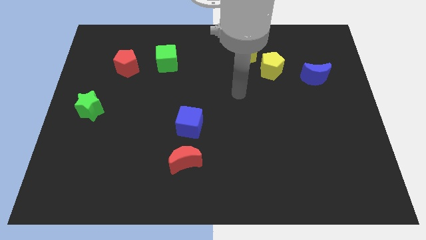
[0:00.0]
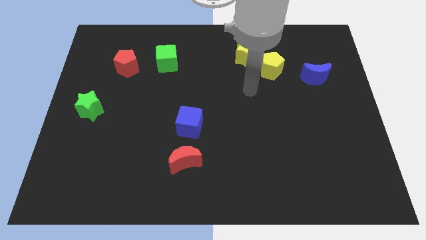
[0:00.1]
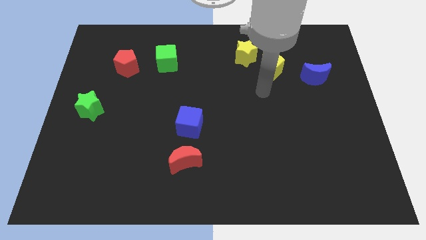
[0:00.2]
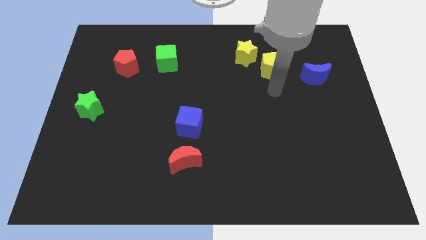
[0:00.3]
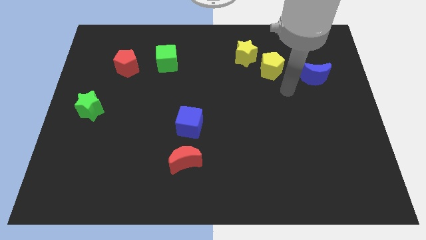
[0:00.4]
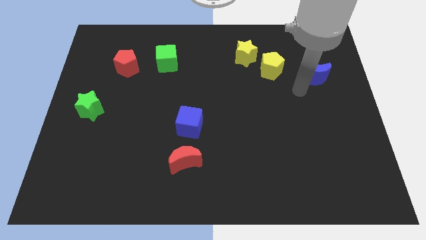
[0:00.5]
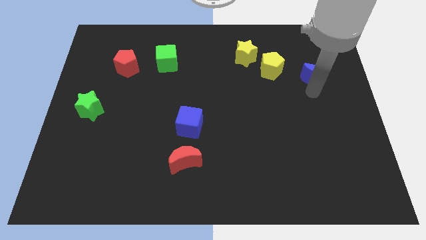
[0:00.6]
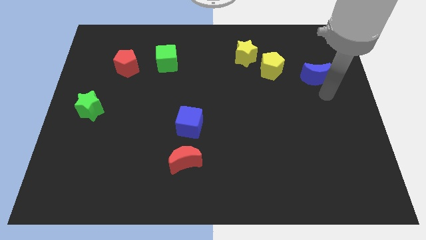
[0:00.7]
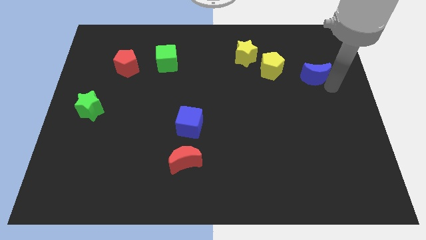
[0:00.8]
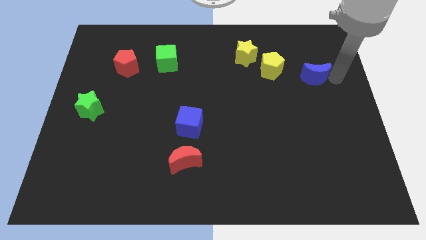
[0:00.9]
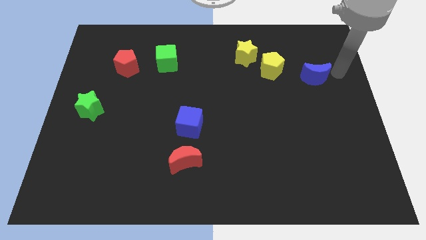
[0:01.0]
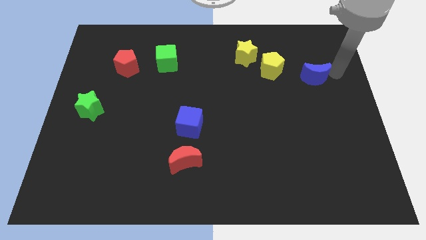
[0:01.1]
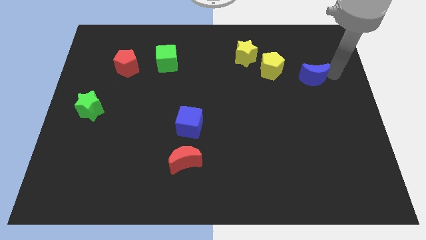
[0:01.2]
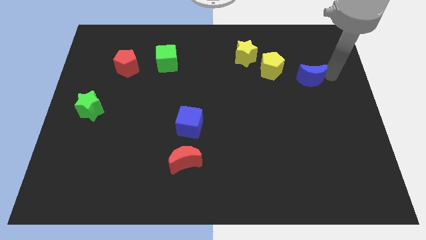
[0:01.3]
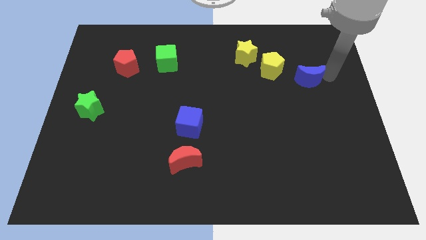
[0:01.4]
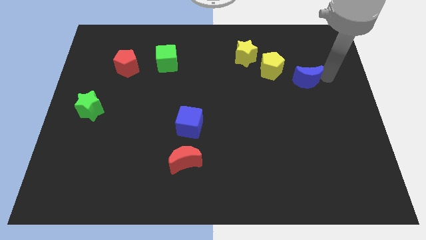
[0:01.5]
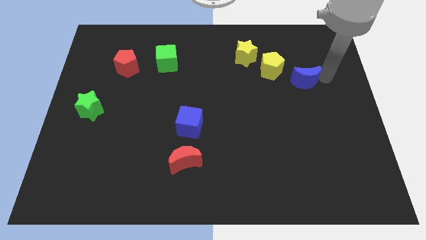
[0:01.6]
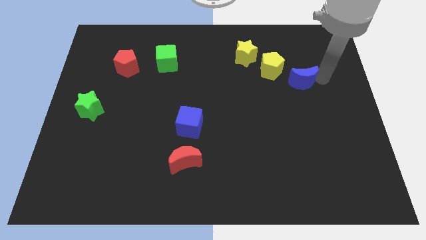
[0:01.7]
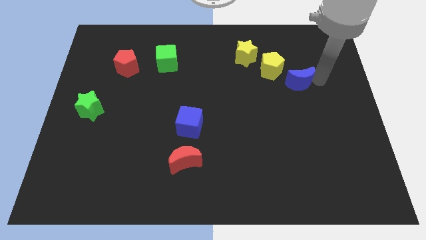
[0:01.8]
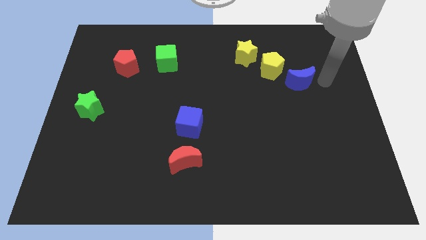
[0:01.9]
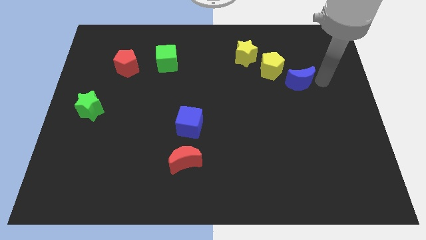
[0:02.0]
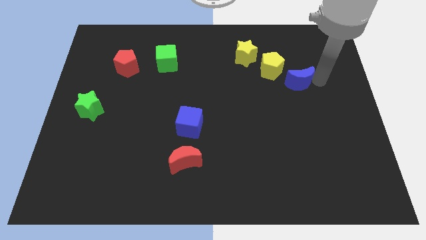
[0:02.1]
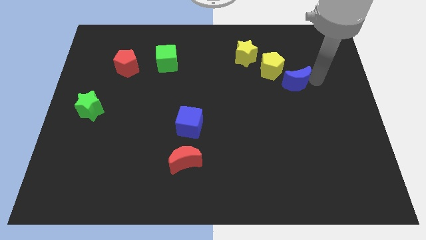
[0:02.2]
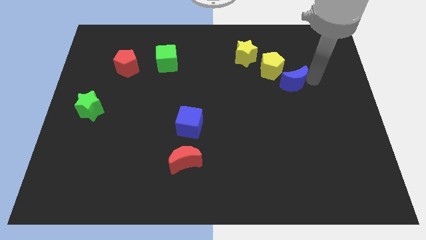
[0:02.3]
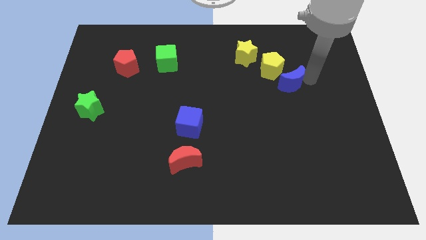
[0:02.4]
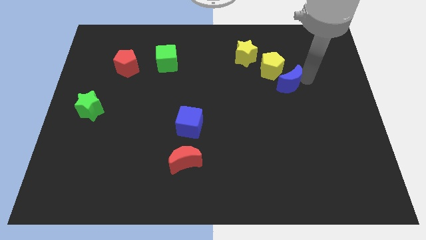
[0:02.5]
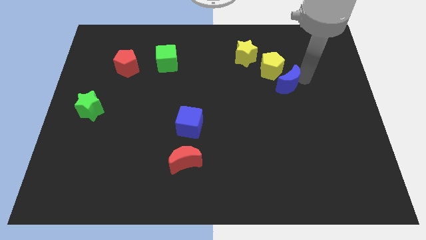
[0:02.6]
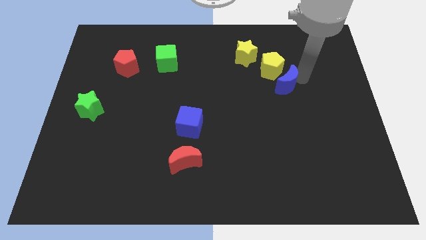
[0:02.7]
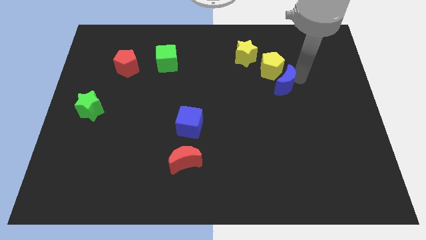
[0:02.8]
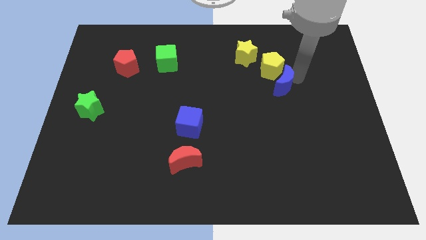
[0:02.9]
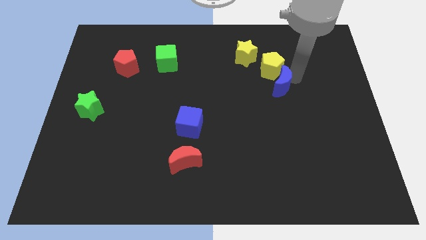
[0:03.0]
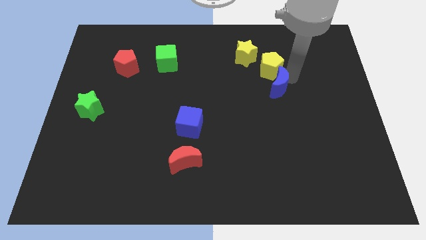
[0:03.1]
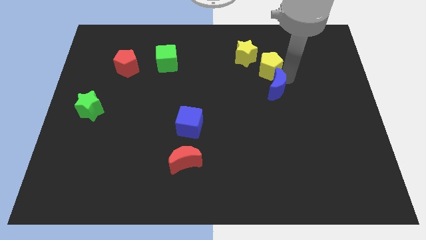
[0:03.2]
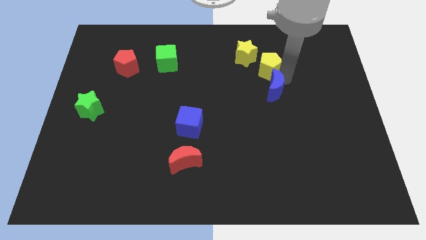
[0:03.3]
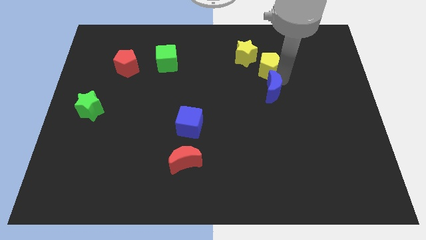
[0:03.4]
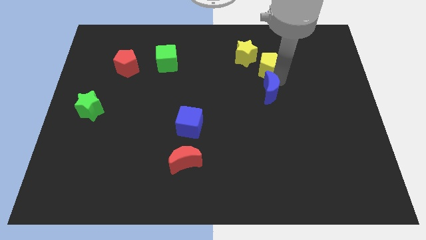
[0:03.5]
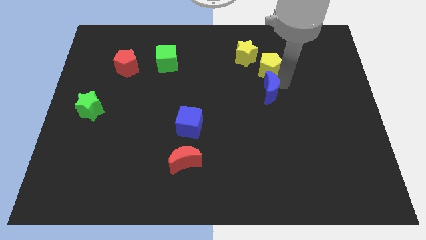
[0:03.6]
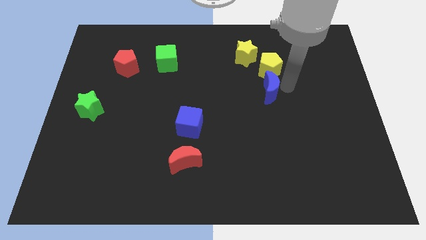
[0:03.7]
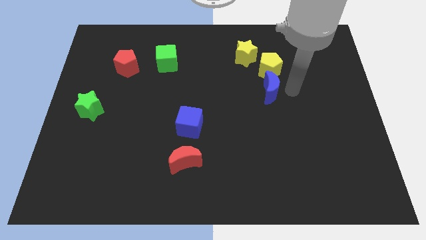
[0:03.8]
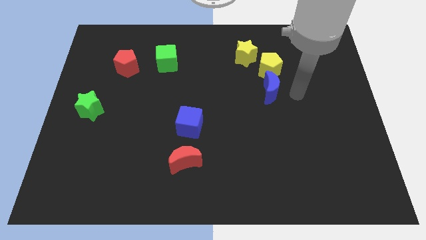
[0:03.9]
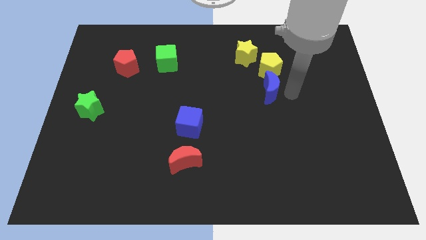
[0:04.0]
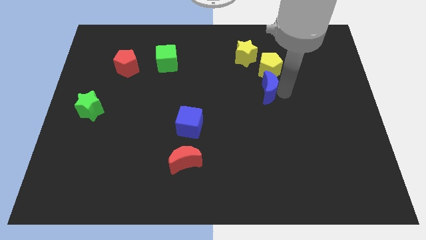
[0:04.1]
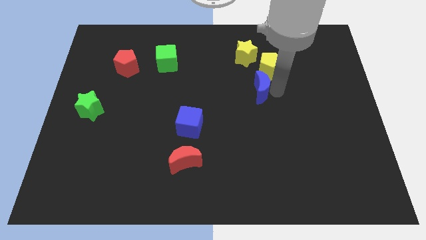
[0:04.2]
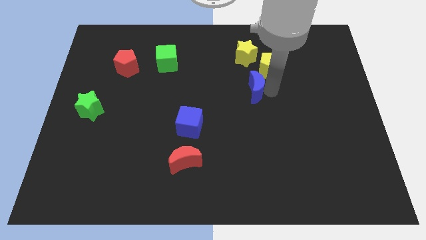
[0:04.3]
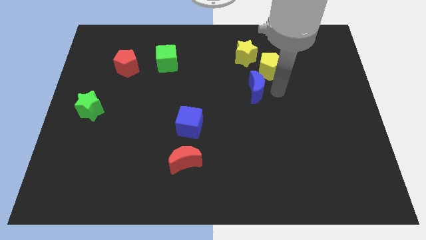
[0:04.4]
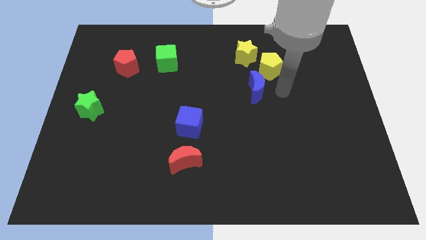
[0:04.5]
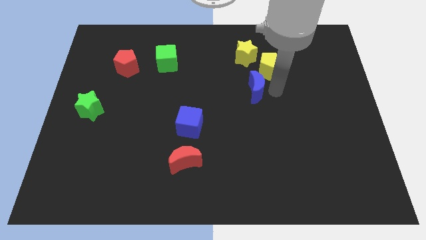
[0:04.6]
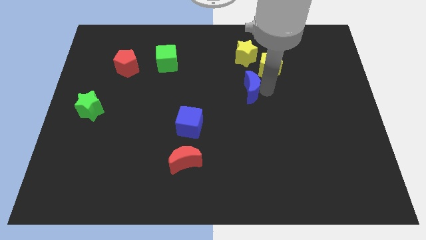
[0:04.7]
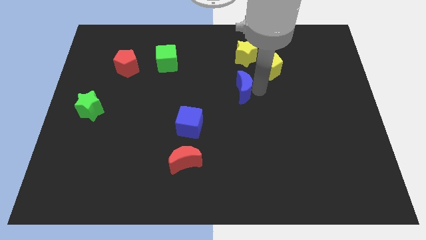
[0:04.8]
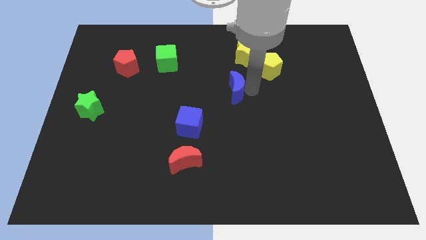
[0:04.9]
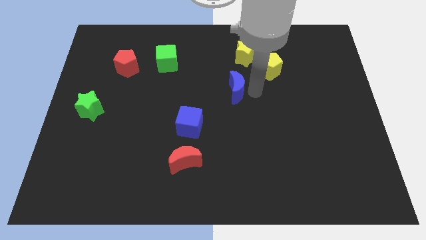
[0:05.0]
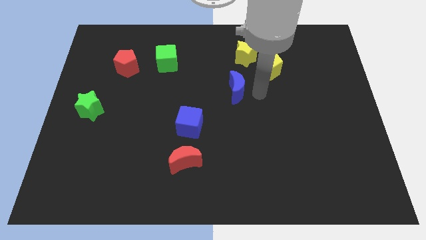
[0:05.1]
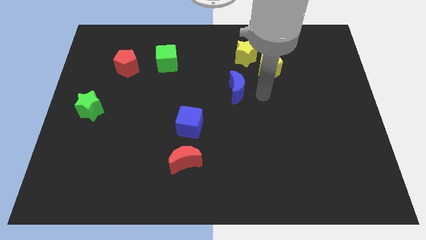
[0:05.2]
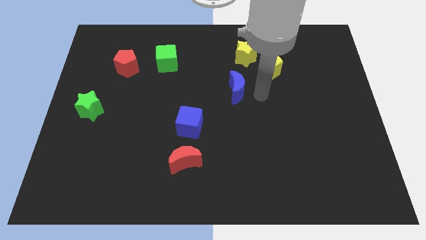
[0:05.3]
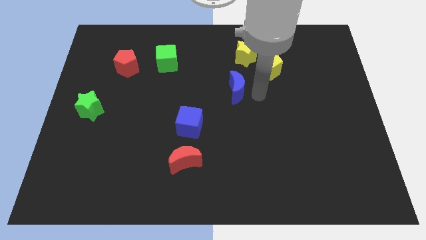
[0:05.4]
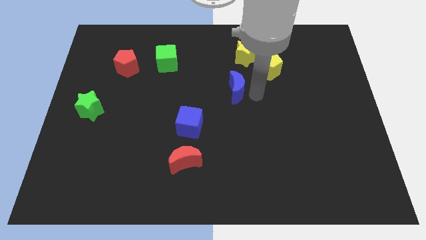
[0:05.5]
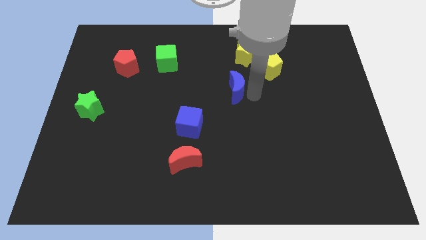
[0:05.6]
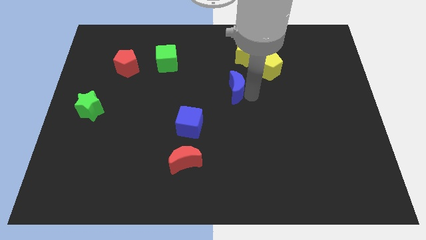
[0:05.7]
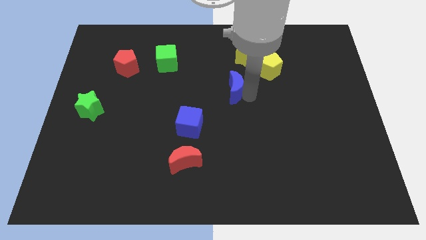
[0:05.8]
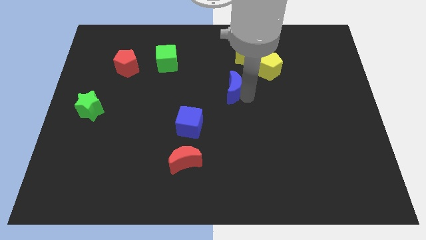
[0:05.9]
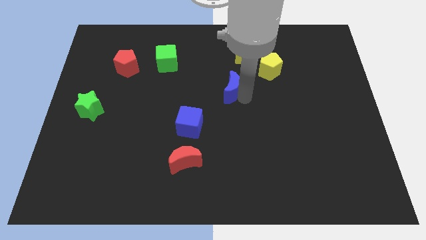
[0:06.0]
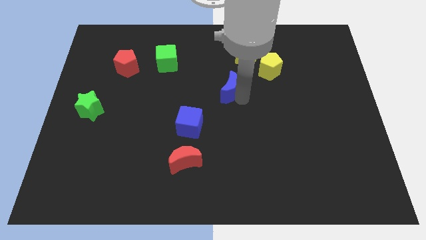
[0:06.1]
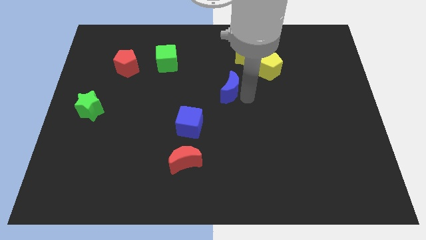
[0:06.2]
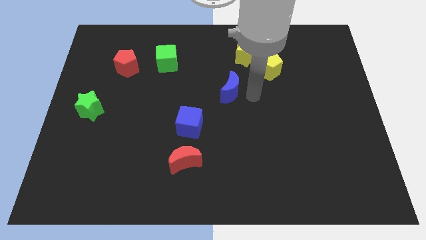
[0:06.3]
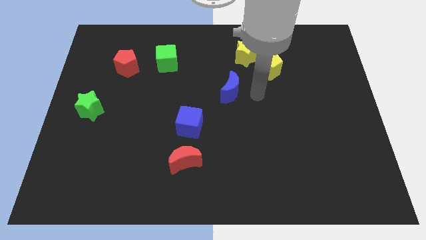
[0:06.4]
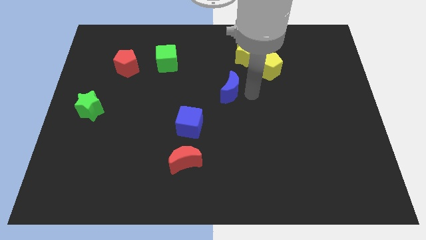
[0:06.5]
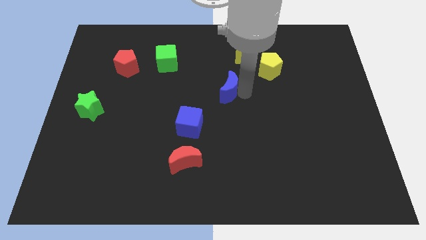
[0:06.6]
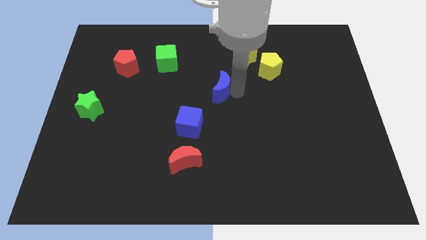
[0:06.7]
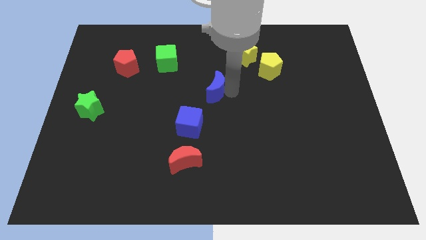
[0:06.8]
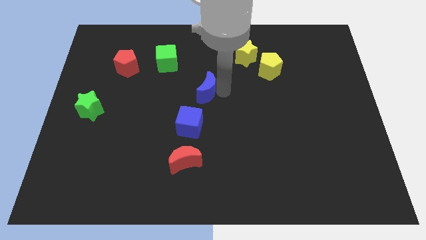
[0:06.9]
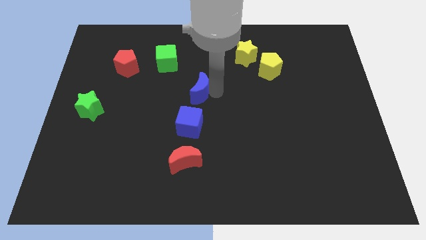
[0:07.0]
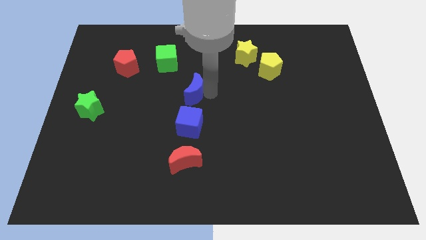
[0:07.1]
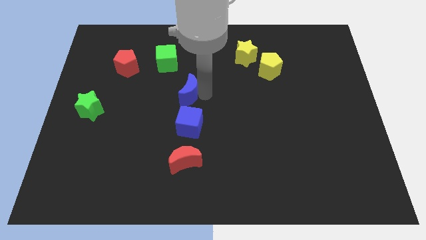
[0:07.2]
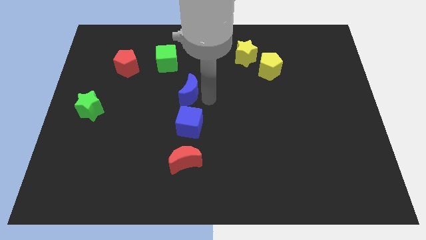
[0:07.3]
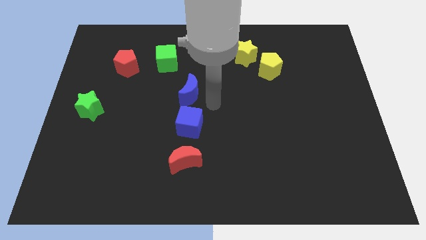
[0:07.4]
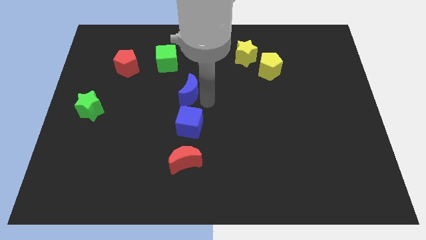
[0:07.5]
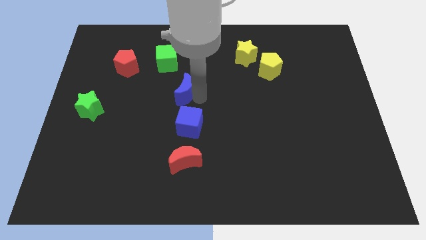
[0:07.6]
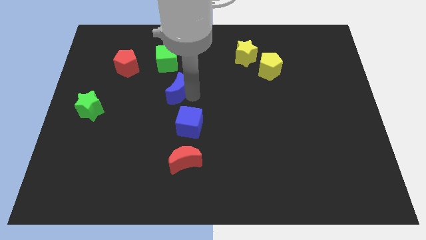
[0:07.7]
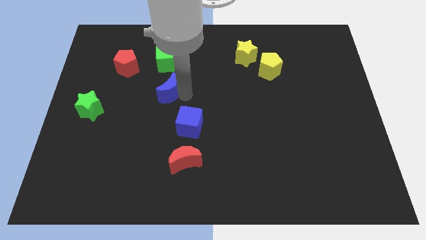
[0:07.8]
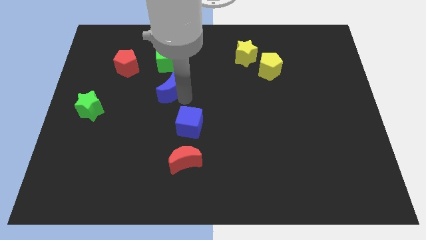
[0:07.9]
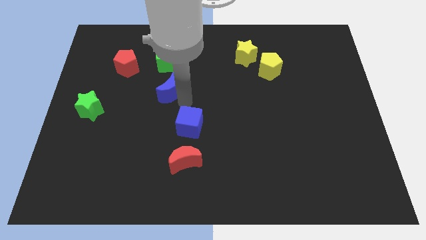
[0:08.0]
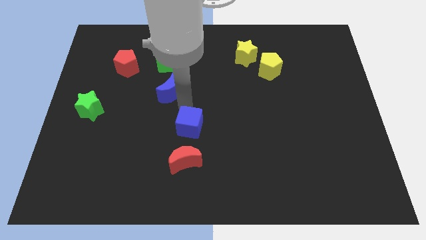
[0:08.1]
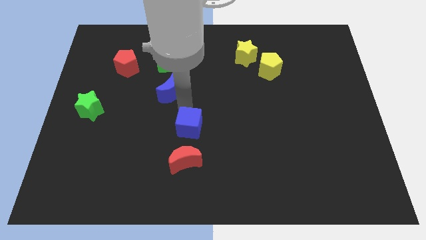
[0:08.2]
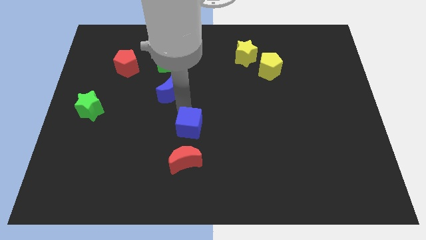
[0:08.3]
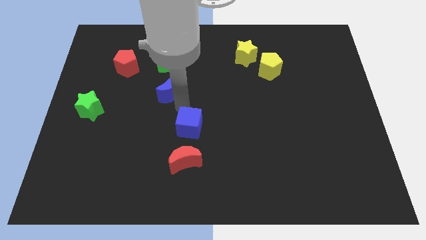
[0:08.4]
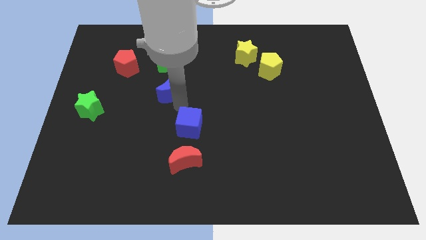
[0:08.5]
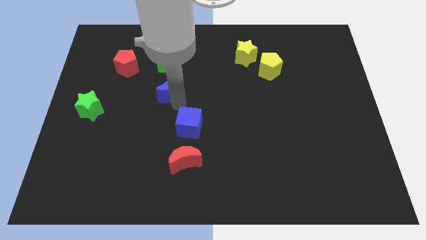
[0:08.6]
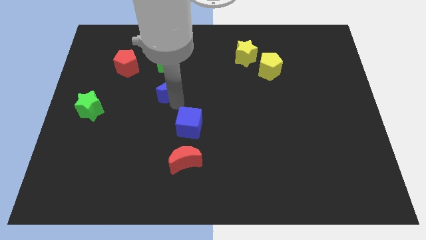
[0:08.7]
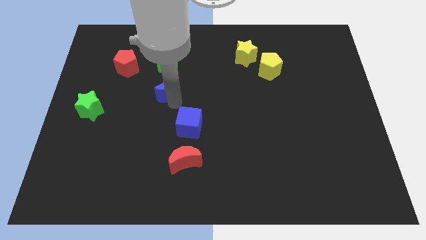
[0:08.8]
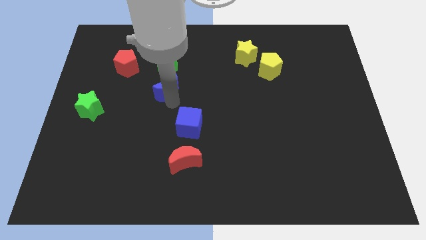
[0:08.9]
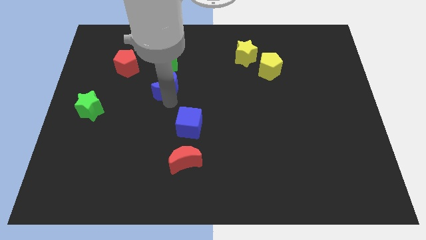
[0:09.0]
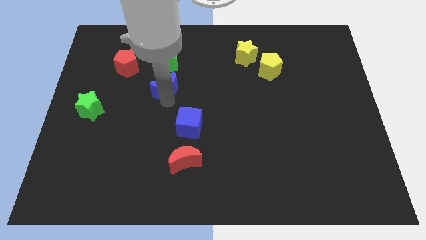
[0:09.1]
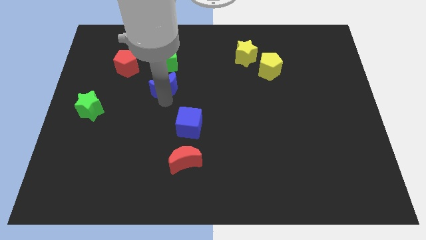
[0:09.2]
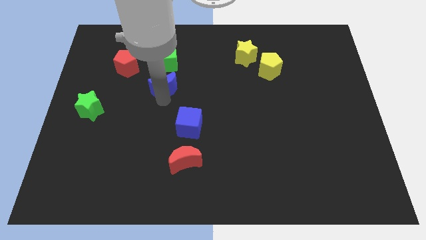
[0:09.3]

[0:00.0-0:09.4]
move the blue moon diagonally down and to the right of the red pentagon
